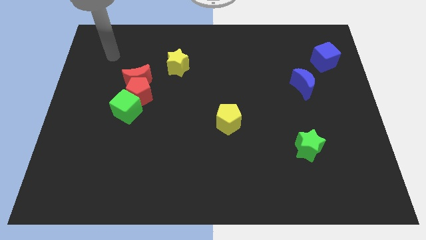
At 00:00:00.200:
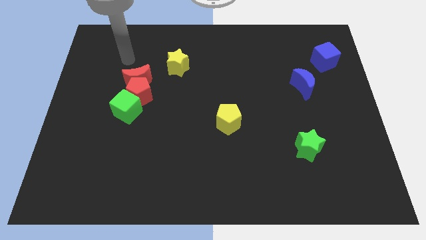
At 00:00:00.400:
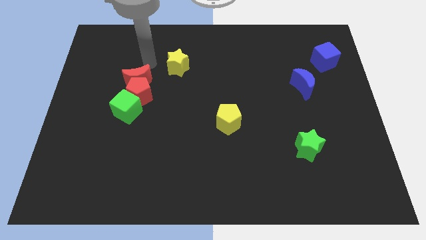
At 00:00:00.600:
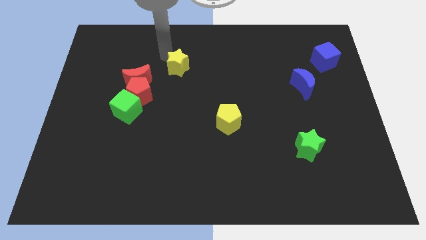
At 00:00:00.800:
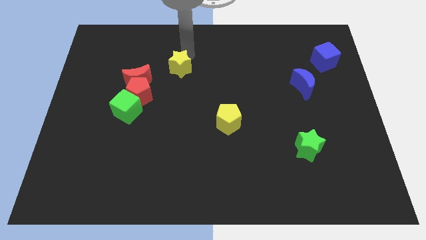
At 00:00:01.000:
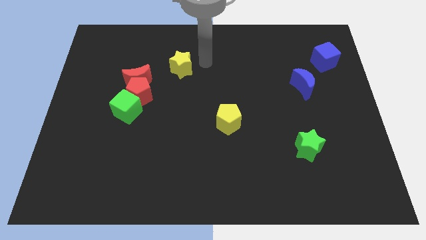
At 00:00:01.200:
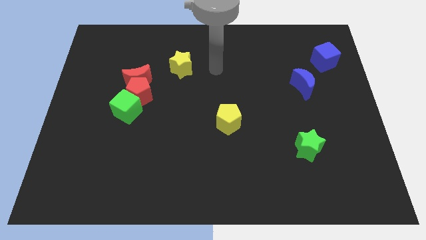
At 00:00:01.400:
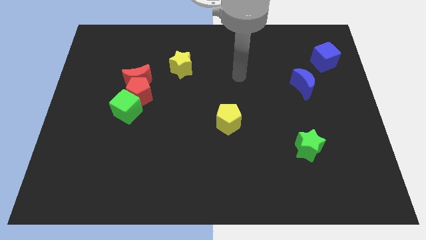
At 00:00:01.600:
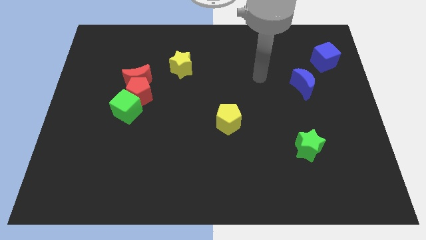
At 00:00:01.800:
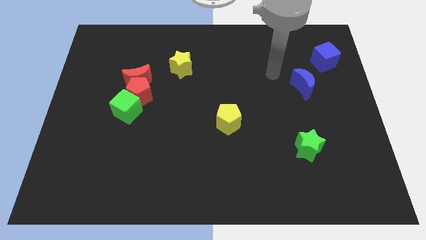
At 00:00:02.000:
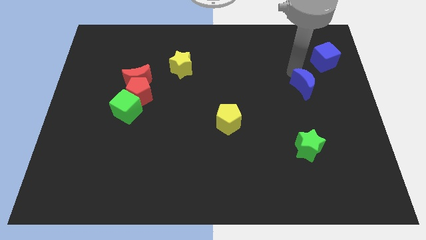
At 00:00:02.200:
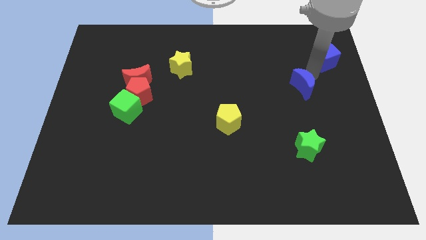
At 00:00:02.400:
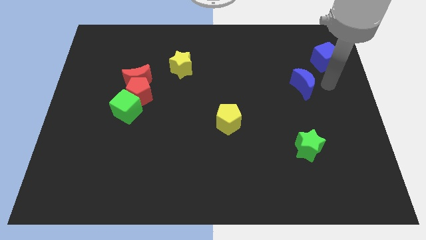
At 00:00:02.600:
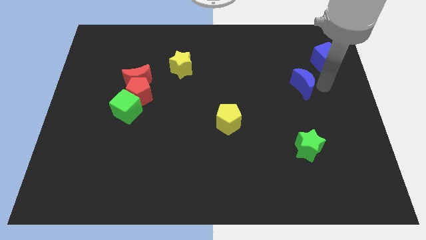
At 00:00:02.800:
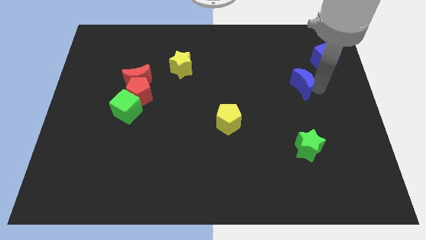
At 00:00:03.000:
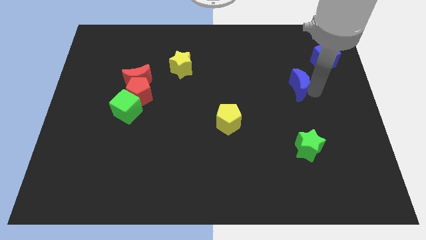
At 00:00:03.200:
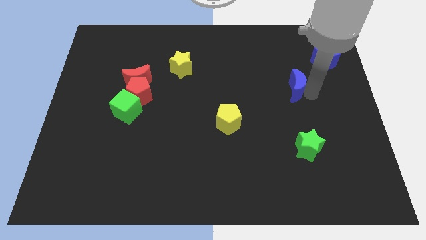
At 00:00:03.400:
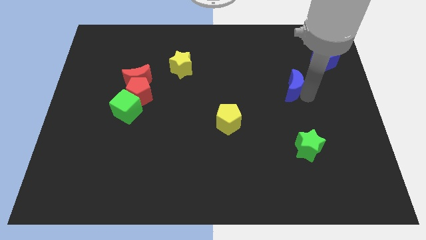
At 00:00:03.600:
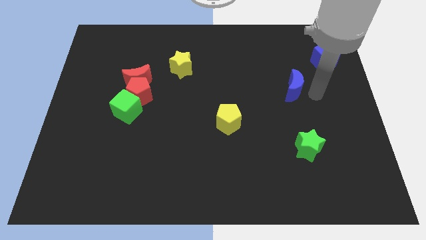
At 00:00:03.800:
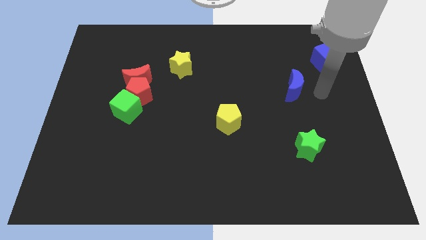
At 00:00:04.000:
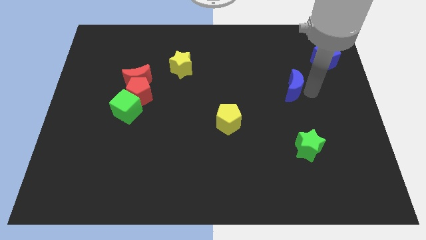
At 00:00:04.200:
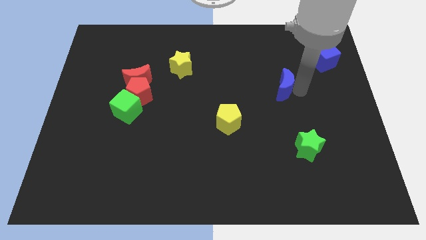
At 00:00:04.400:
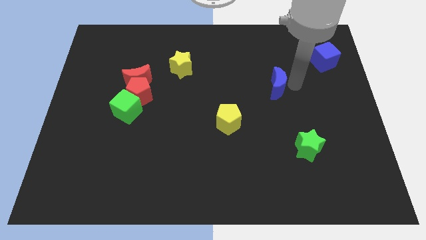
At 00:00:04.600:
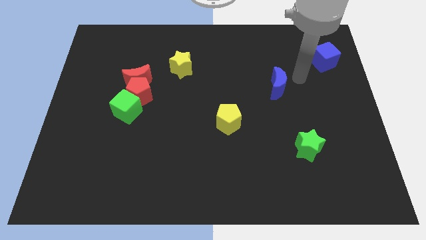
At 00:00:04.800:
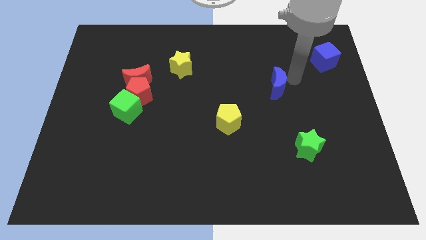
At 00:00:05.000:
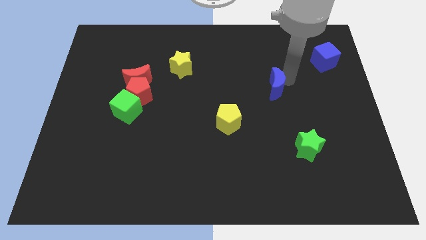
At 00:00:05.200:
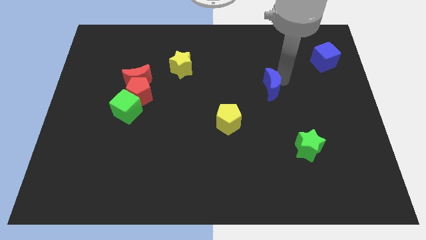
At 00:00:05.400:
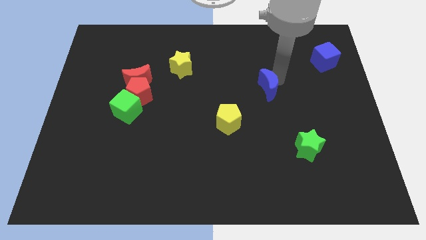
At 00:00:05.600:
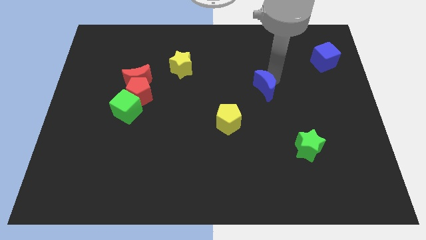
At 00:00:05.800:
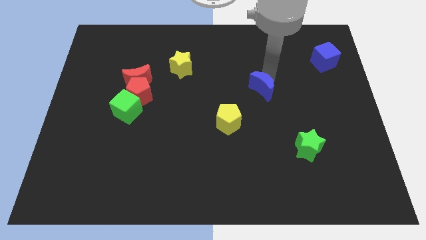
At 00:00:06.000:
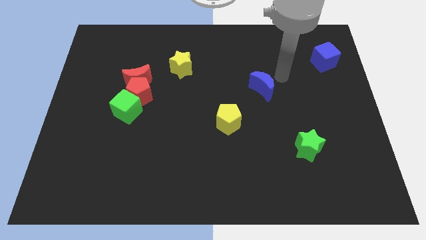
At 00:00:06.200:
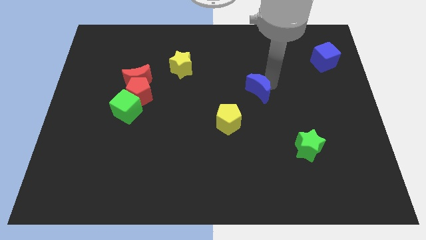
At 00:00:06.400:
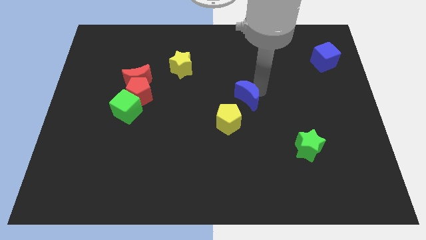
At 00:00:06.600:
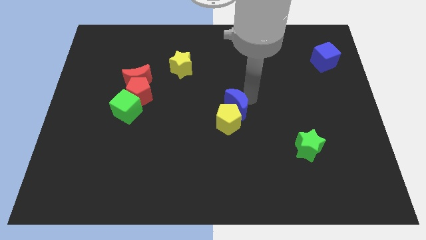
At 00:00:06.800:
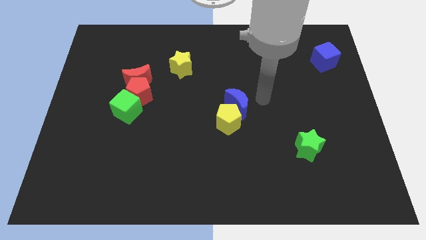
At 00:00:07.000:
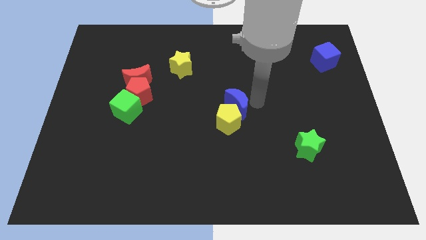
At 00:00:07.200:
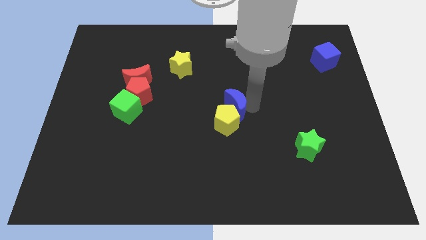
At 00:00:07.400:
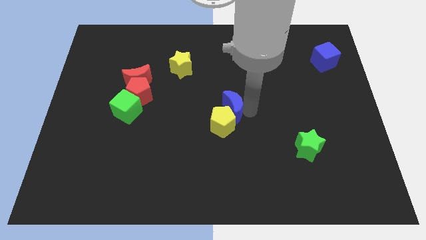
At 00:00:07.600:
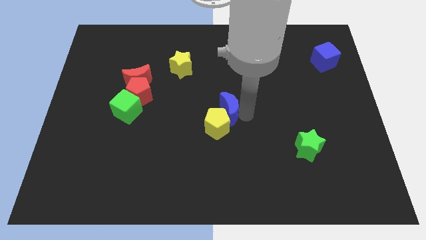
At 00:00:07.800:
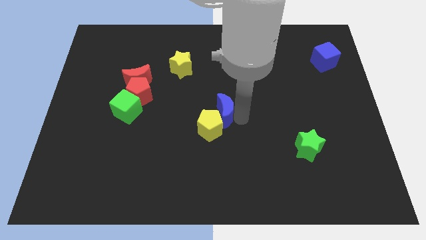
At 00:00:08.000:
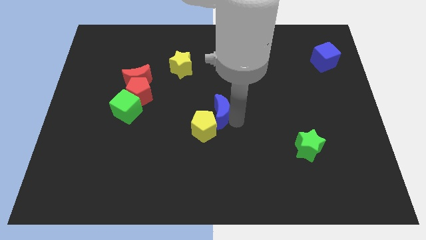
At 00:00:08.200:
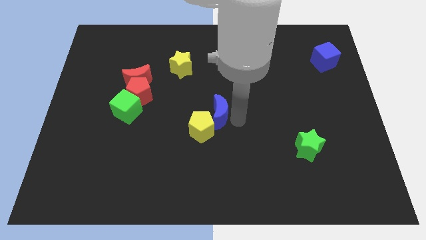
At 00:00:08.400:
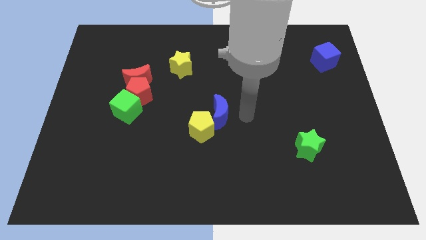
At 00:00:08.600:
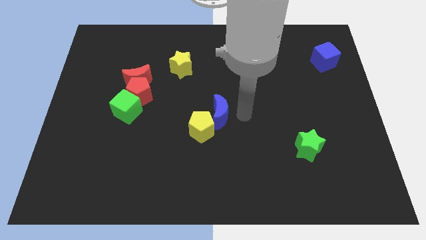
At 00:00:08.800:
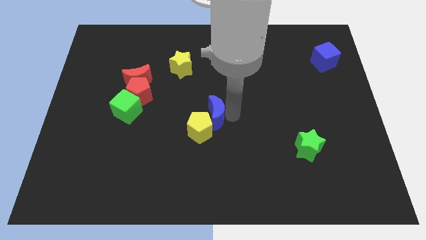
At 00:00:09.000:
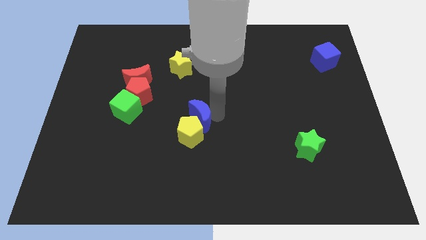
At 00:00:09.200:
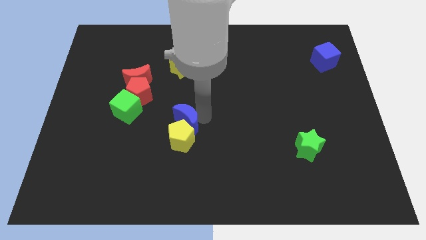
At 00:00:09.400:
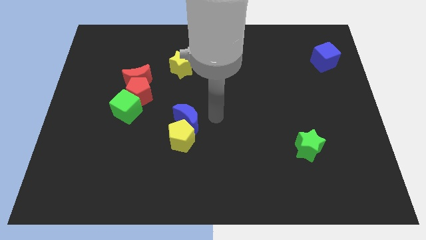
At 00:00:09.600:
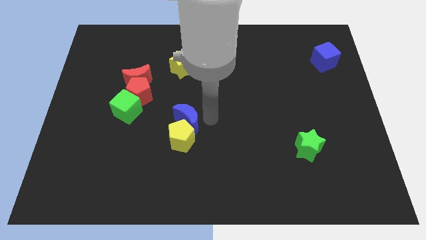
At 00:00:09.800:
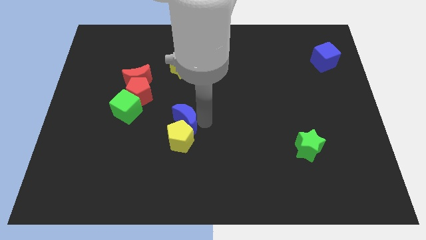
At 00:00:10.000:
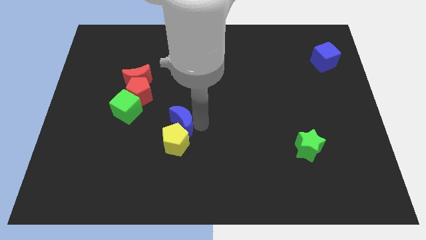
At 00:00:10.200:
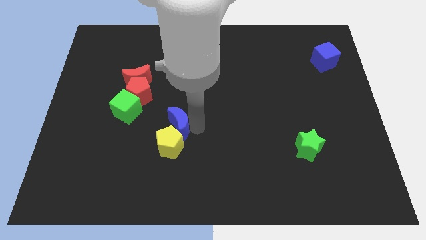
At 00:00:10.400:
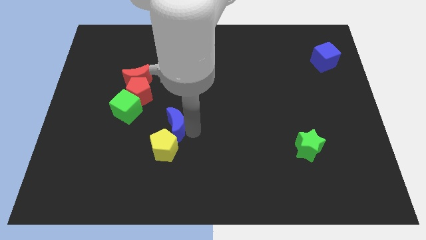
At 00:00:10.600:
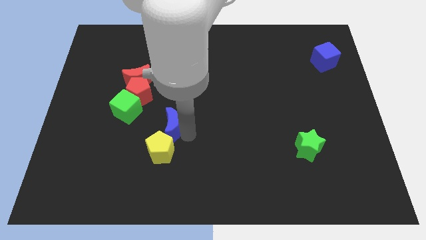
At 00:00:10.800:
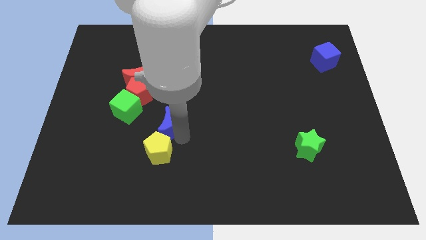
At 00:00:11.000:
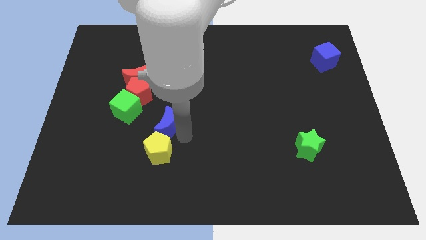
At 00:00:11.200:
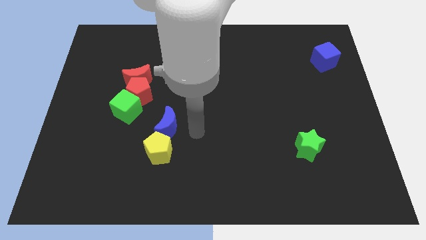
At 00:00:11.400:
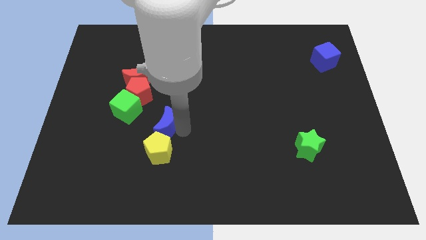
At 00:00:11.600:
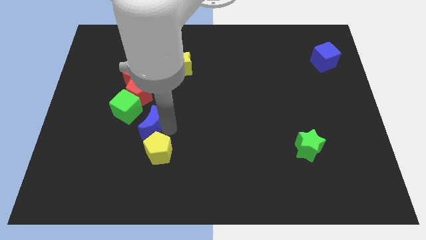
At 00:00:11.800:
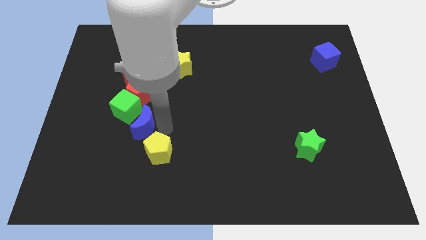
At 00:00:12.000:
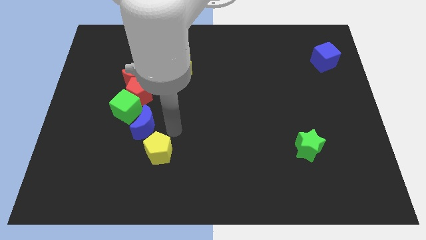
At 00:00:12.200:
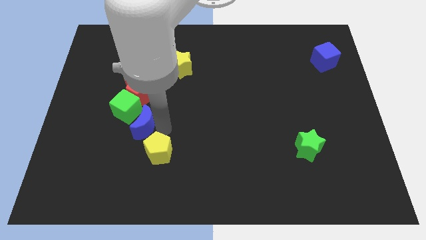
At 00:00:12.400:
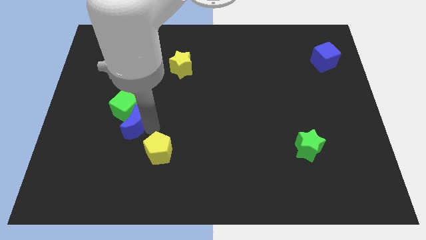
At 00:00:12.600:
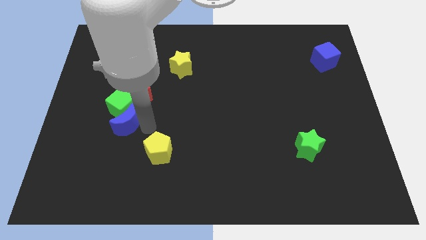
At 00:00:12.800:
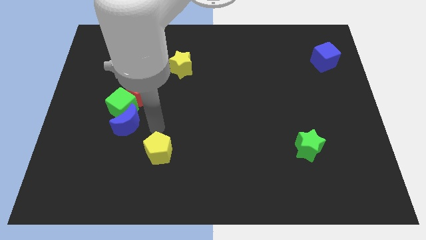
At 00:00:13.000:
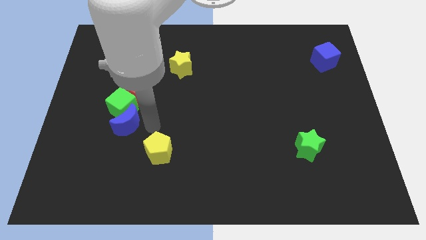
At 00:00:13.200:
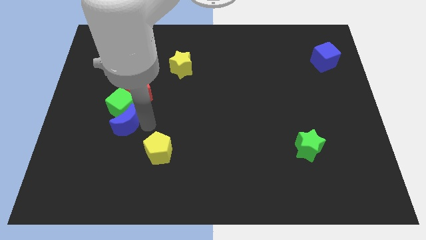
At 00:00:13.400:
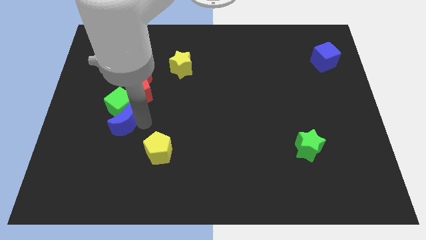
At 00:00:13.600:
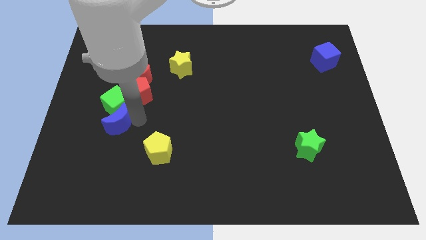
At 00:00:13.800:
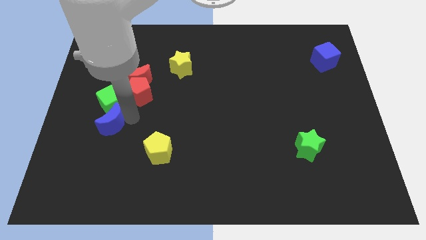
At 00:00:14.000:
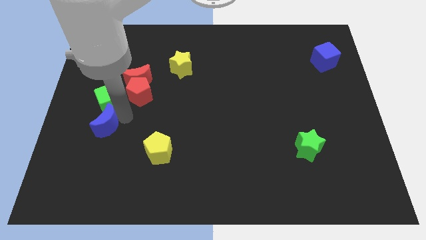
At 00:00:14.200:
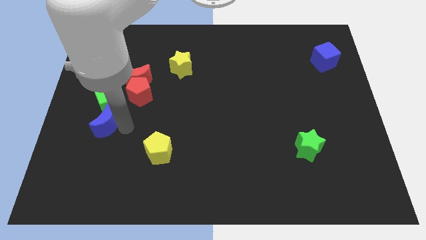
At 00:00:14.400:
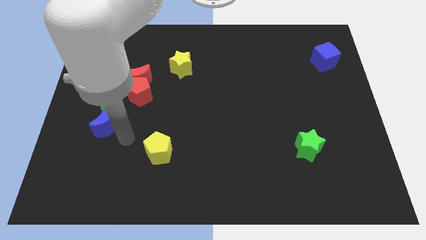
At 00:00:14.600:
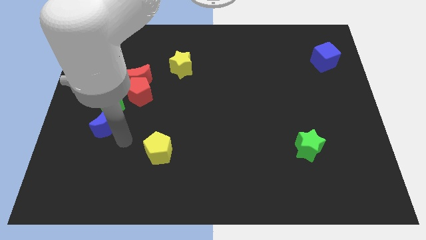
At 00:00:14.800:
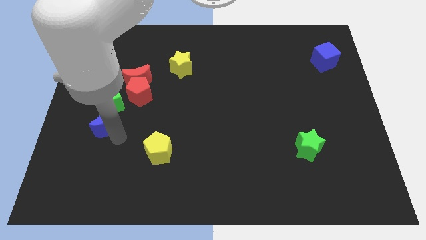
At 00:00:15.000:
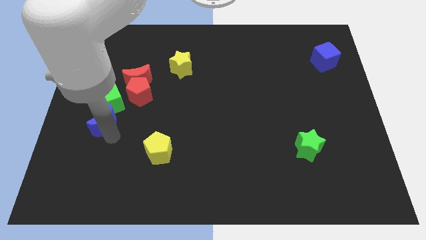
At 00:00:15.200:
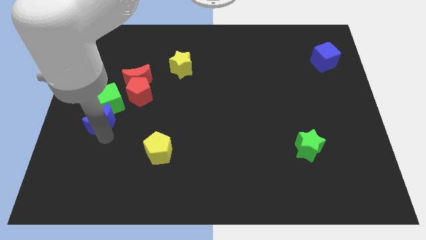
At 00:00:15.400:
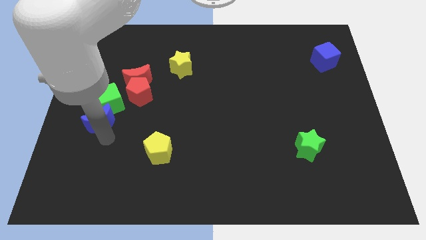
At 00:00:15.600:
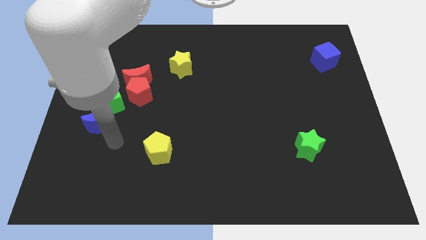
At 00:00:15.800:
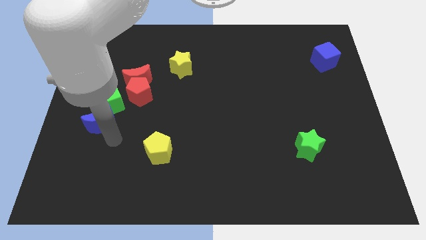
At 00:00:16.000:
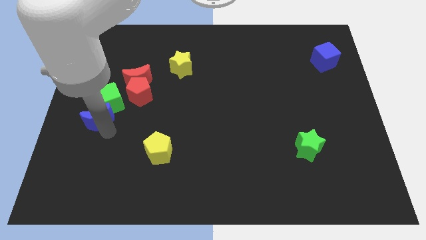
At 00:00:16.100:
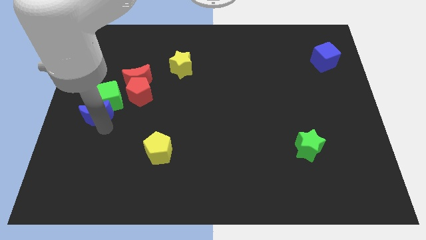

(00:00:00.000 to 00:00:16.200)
slide the blue moon to the left side
